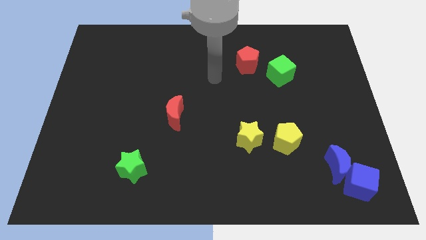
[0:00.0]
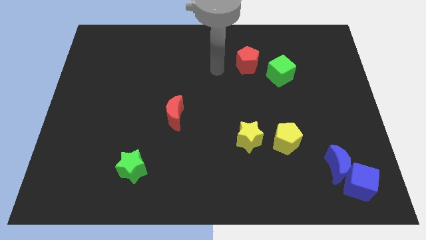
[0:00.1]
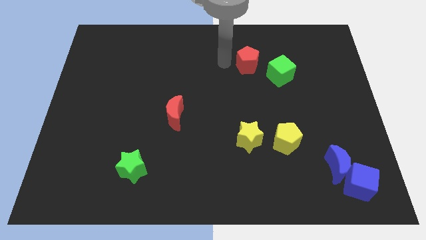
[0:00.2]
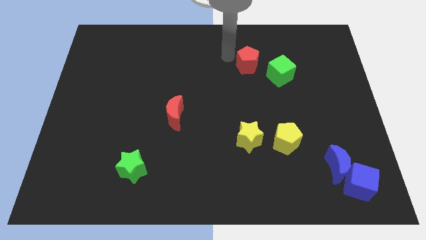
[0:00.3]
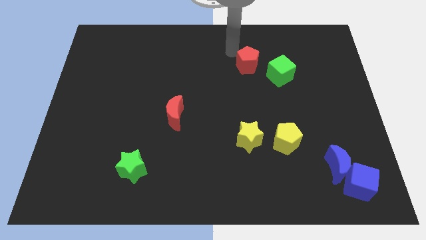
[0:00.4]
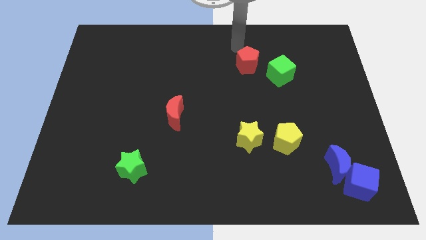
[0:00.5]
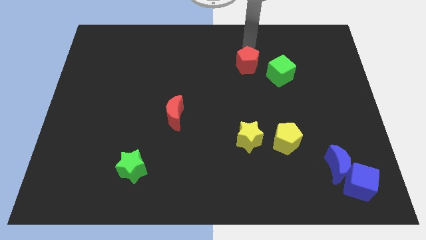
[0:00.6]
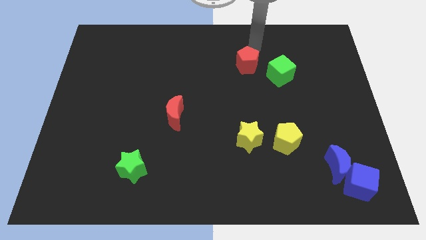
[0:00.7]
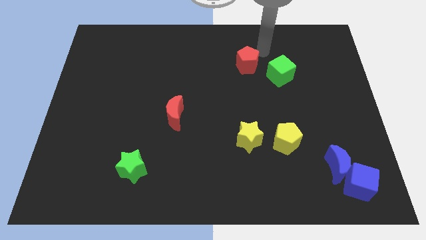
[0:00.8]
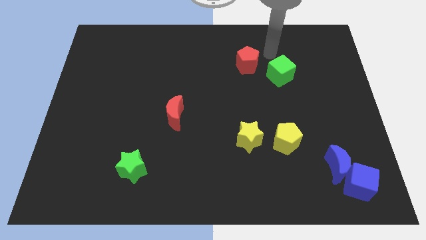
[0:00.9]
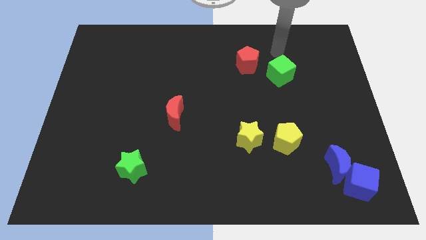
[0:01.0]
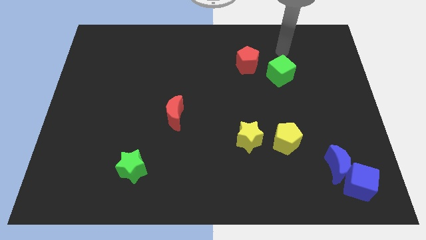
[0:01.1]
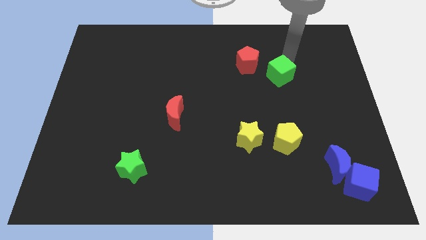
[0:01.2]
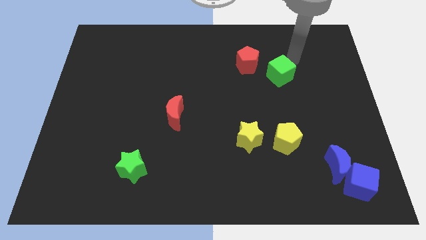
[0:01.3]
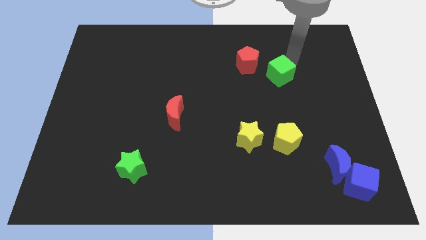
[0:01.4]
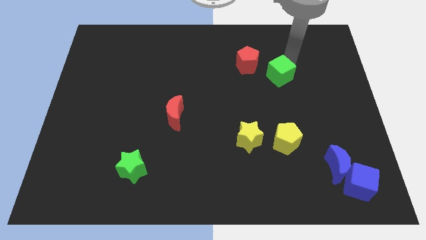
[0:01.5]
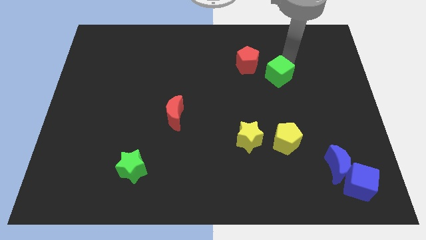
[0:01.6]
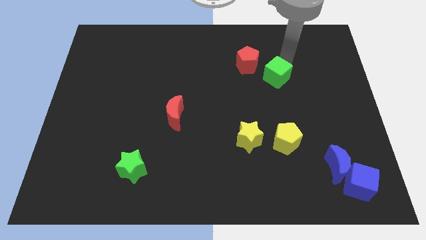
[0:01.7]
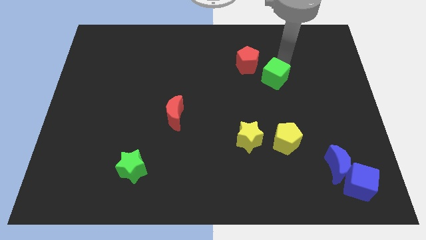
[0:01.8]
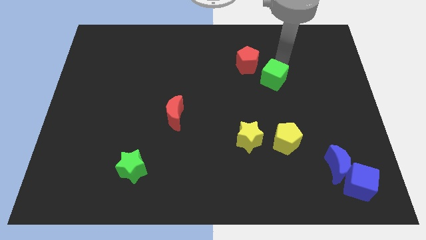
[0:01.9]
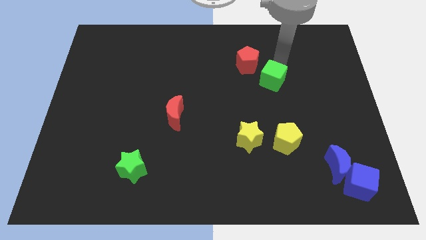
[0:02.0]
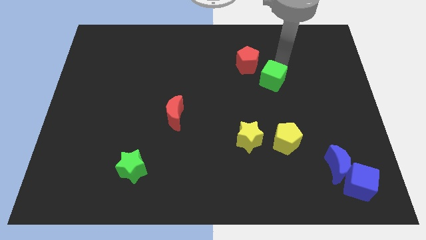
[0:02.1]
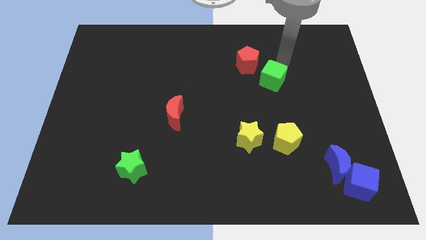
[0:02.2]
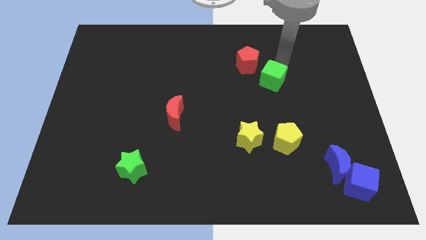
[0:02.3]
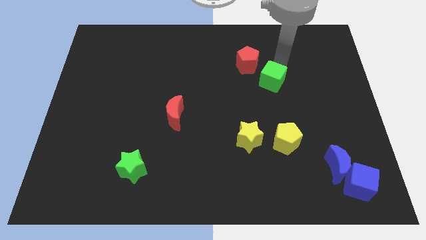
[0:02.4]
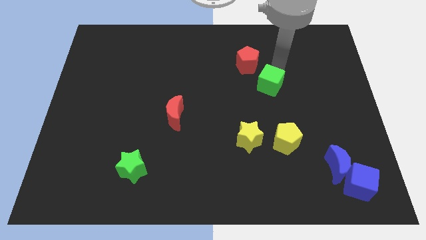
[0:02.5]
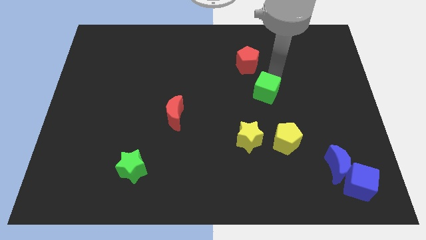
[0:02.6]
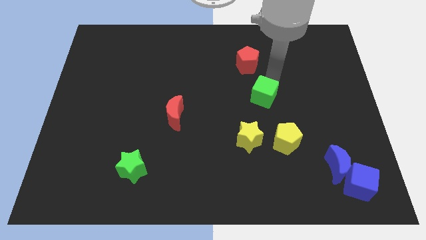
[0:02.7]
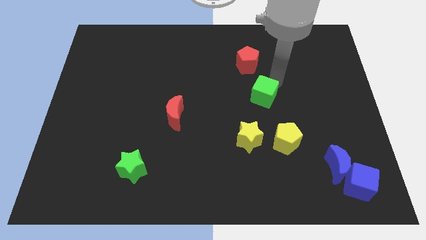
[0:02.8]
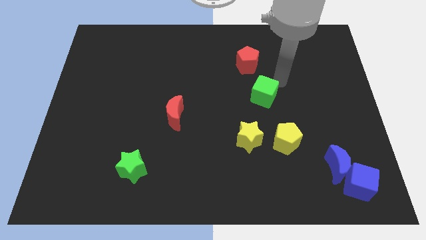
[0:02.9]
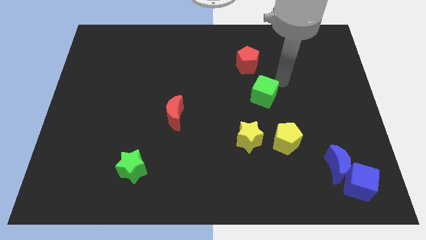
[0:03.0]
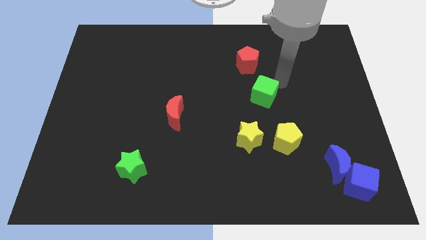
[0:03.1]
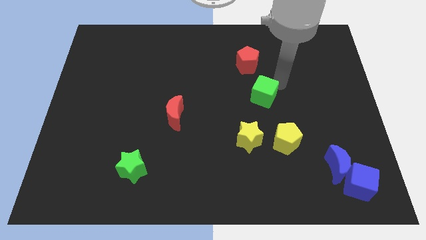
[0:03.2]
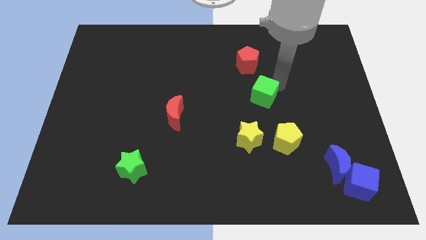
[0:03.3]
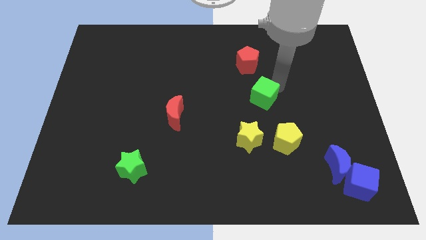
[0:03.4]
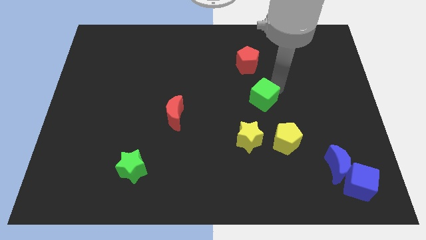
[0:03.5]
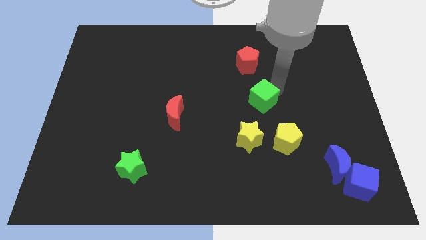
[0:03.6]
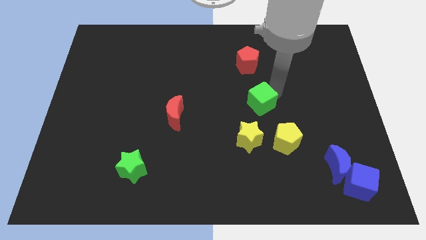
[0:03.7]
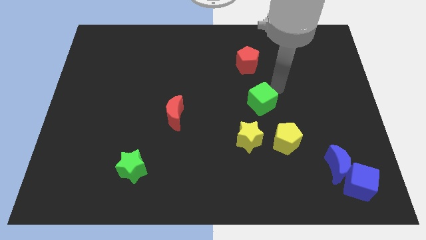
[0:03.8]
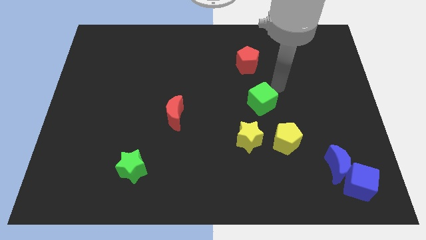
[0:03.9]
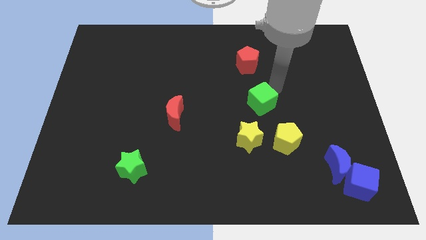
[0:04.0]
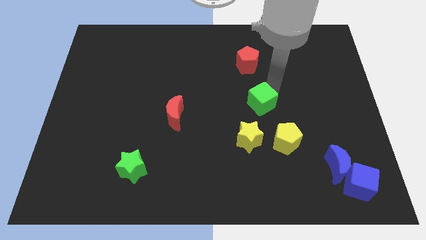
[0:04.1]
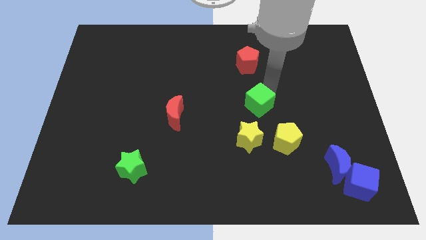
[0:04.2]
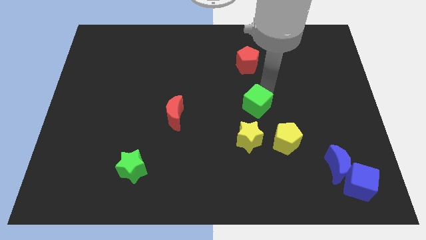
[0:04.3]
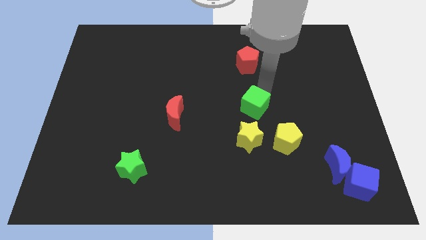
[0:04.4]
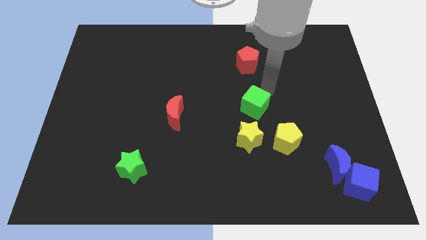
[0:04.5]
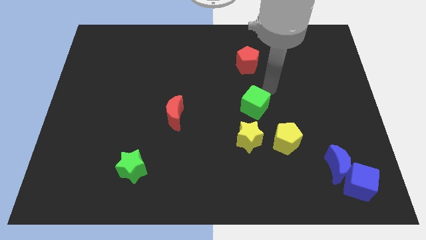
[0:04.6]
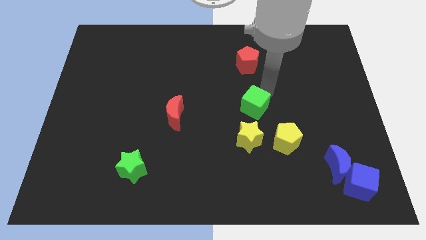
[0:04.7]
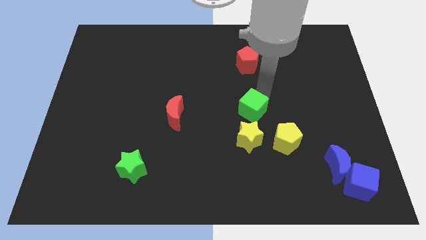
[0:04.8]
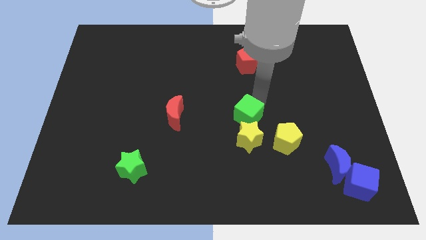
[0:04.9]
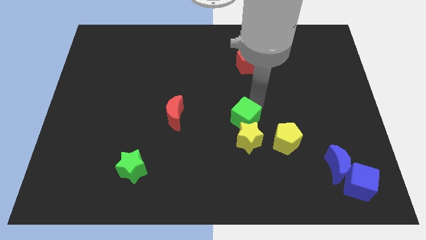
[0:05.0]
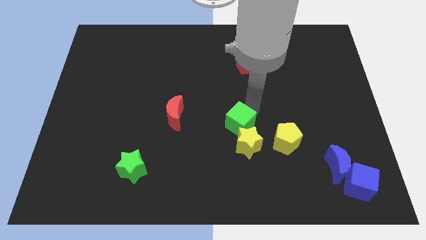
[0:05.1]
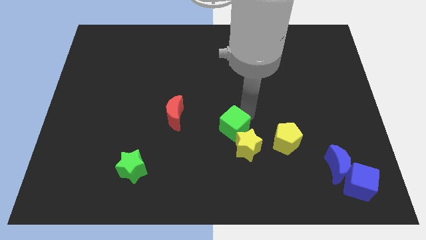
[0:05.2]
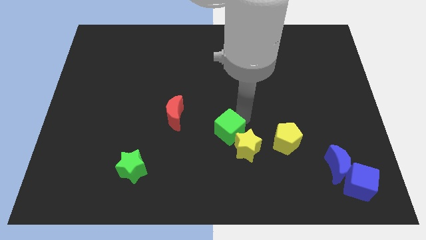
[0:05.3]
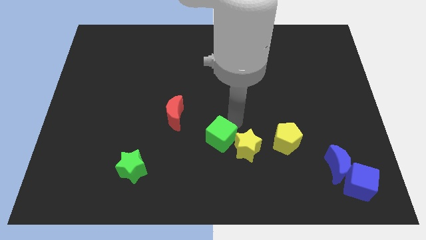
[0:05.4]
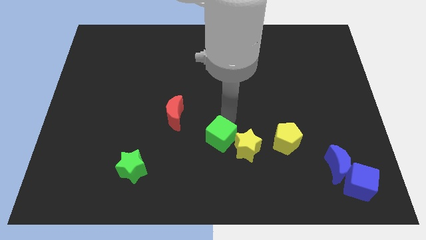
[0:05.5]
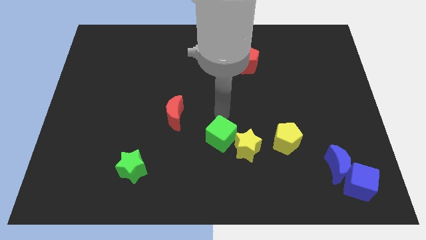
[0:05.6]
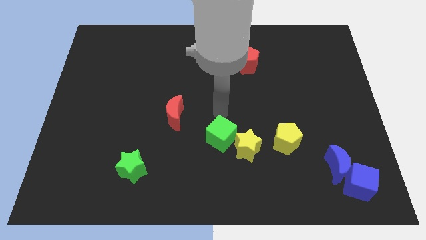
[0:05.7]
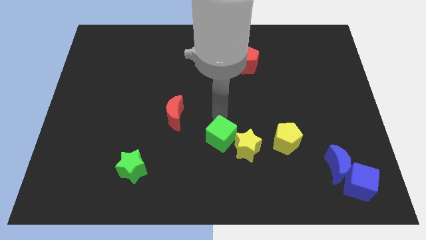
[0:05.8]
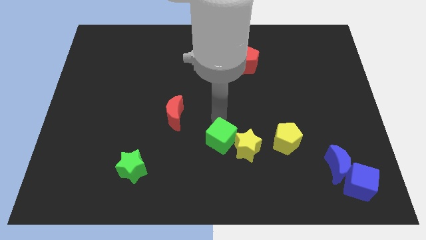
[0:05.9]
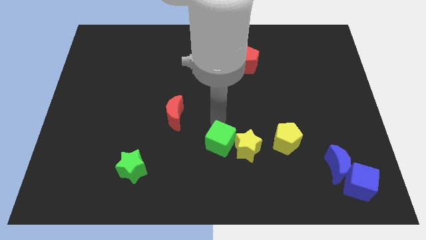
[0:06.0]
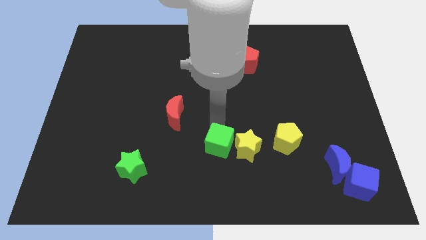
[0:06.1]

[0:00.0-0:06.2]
push the green cube diagonally down and to the left of the yellow star
